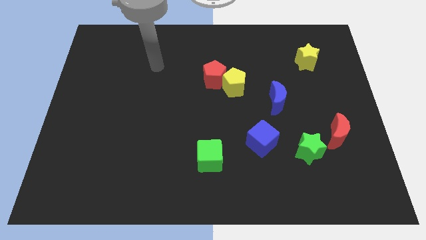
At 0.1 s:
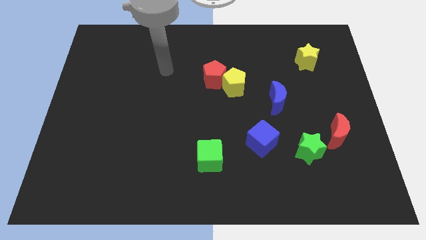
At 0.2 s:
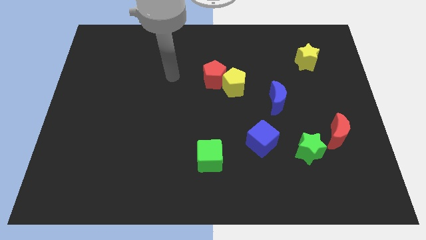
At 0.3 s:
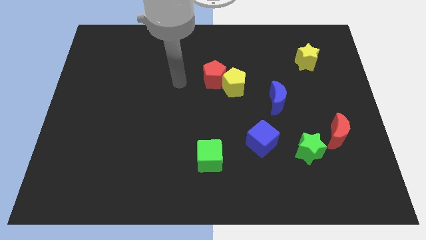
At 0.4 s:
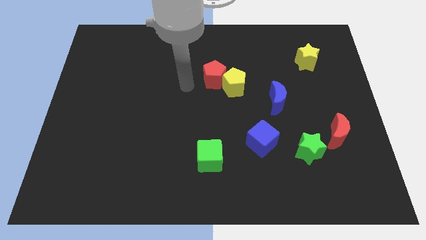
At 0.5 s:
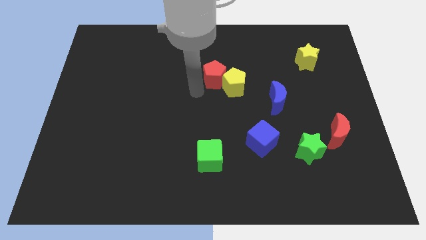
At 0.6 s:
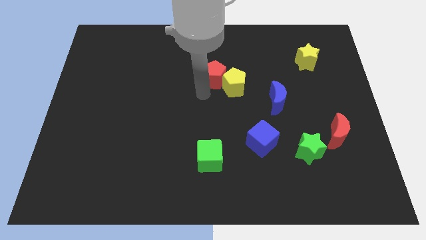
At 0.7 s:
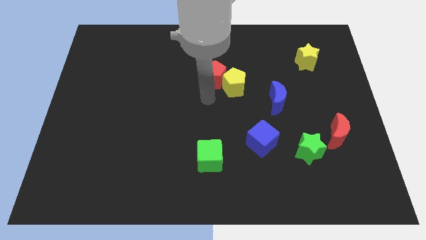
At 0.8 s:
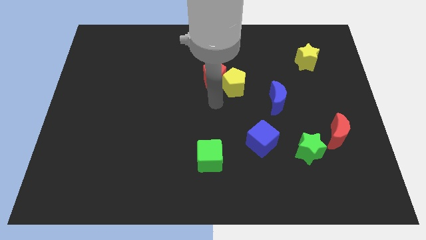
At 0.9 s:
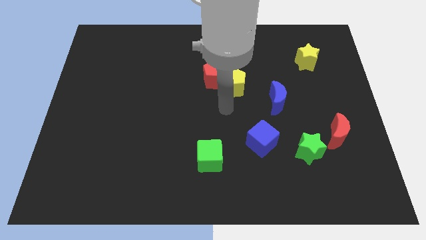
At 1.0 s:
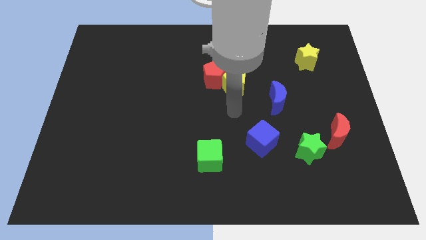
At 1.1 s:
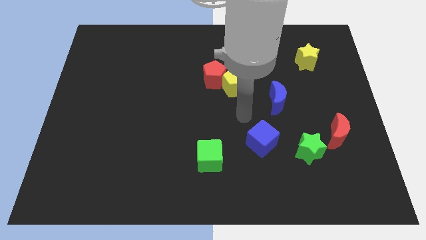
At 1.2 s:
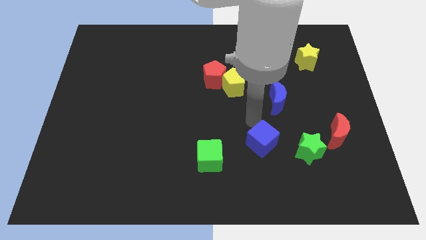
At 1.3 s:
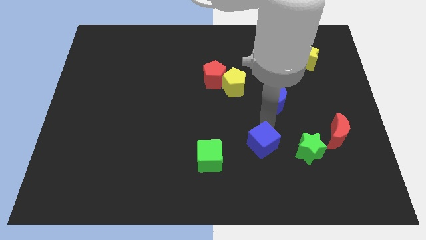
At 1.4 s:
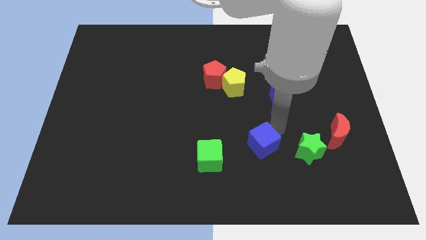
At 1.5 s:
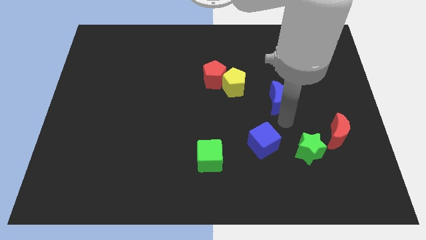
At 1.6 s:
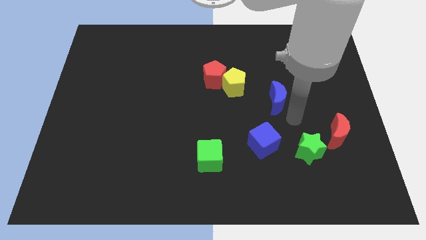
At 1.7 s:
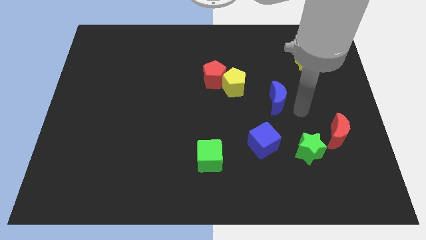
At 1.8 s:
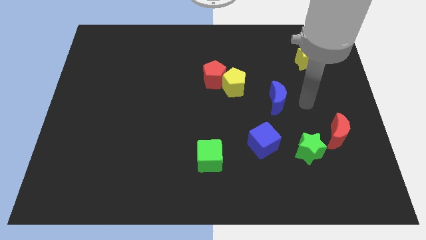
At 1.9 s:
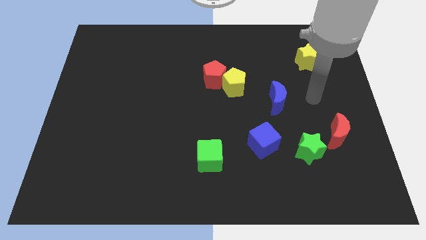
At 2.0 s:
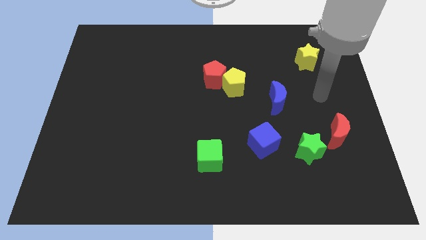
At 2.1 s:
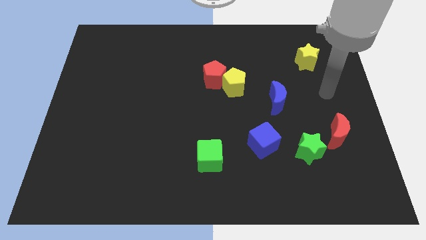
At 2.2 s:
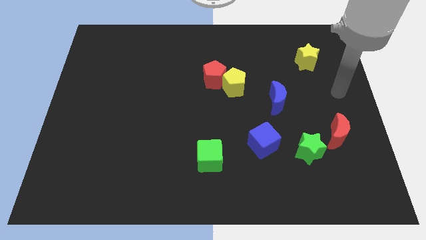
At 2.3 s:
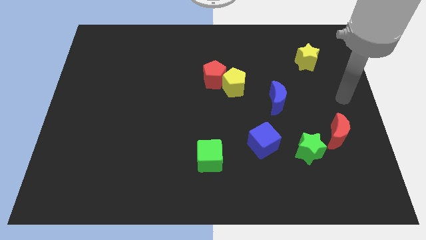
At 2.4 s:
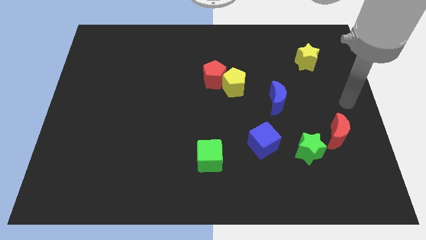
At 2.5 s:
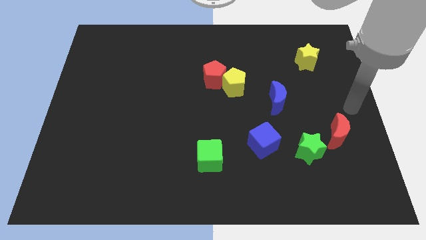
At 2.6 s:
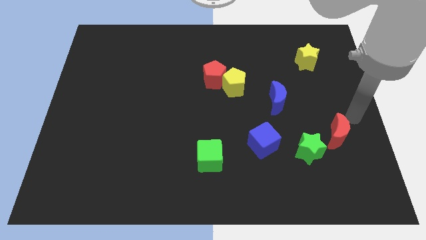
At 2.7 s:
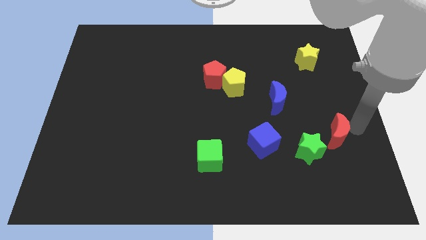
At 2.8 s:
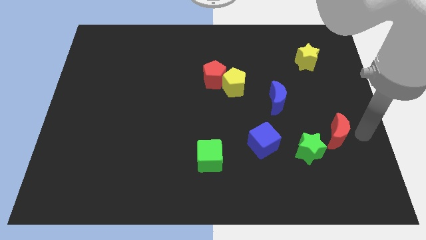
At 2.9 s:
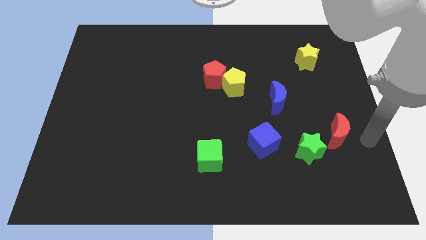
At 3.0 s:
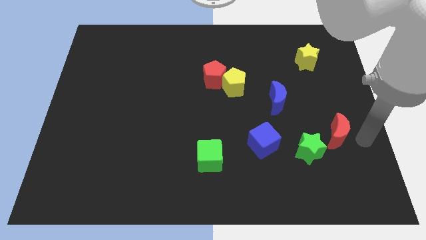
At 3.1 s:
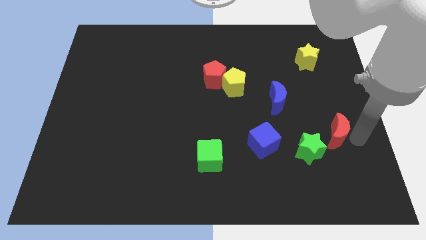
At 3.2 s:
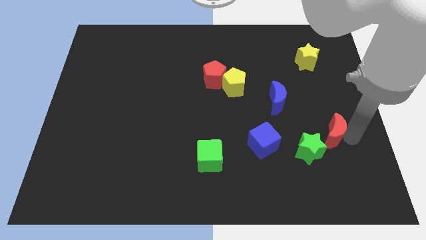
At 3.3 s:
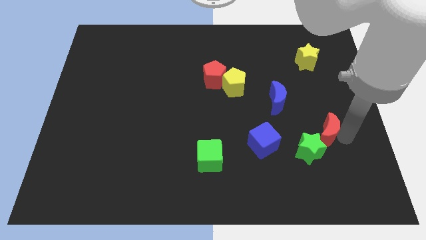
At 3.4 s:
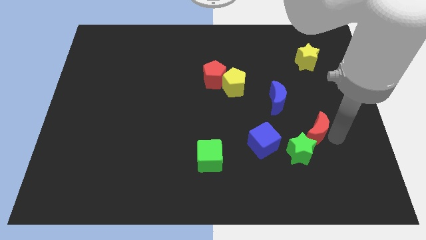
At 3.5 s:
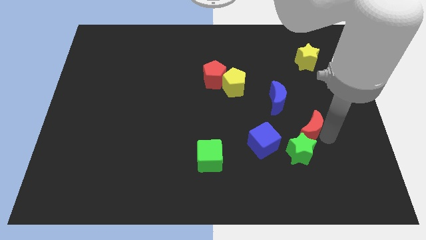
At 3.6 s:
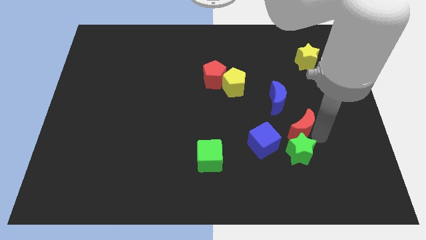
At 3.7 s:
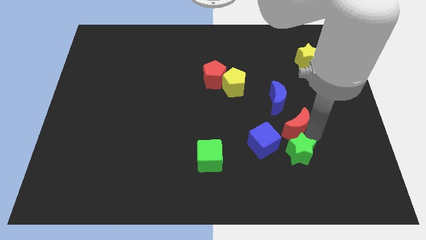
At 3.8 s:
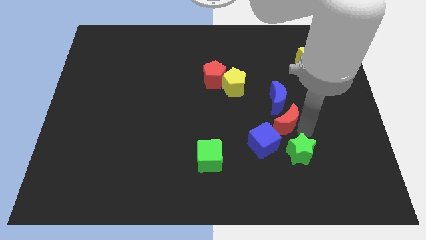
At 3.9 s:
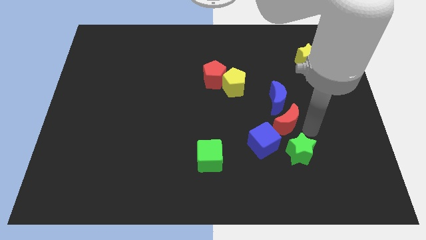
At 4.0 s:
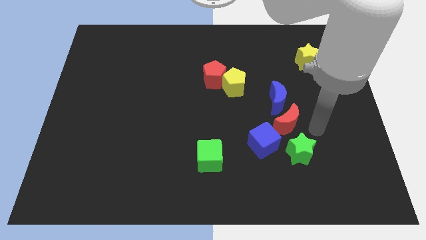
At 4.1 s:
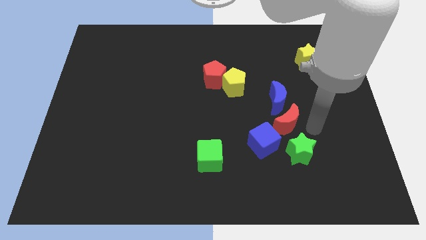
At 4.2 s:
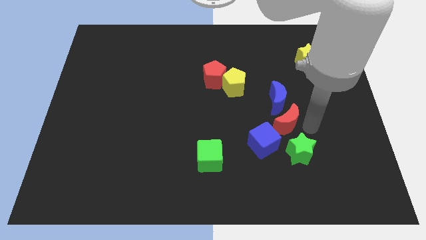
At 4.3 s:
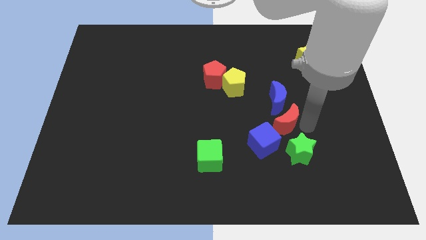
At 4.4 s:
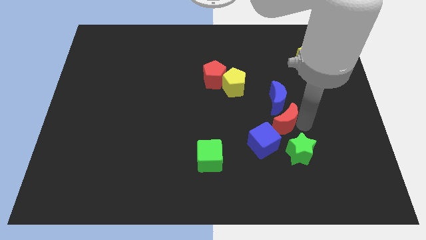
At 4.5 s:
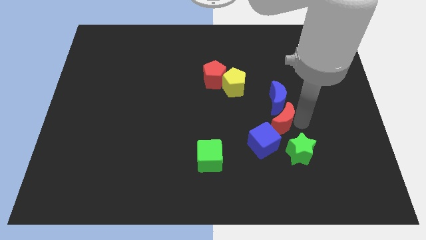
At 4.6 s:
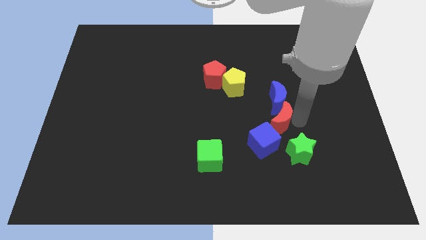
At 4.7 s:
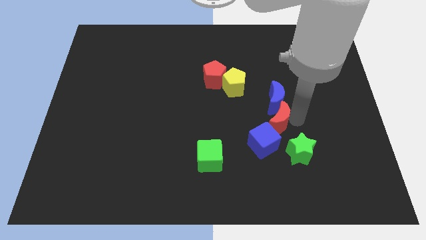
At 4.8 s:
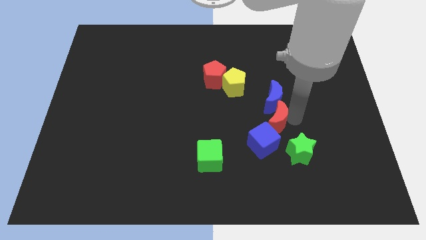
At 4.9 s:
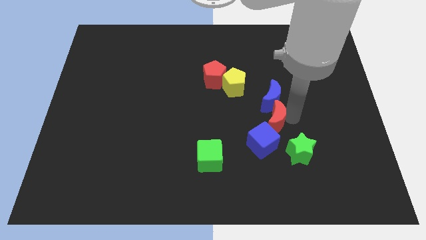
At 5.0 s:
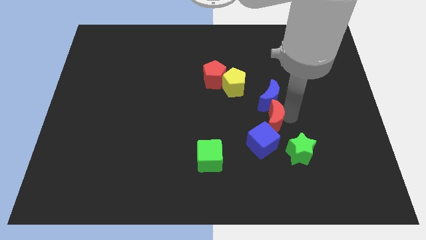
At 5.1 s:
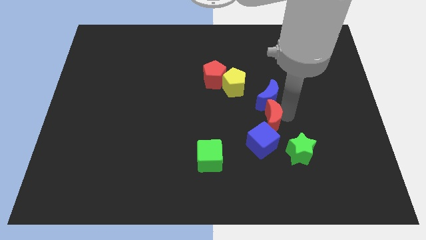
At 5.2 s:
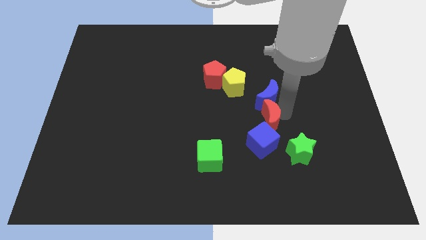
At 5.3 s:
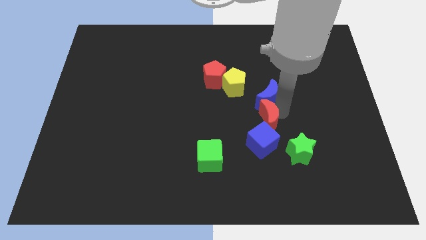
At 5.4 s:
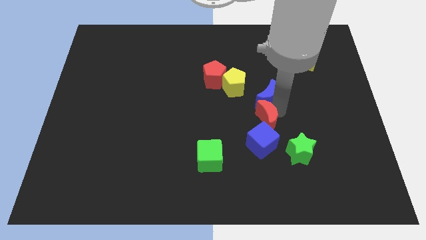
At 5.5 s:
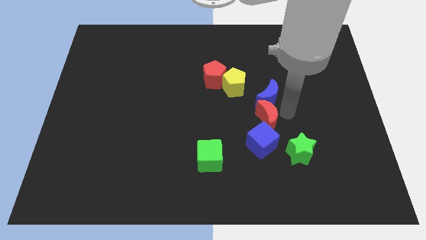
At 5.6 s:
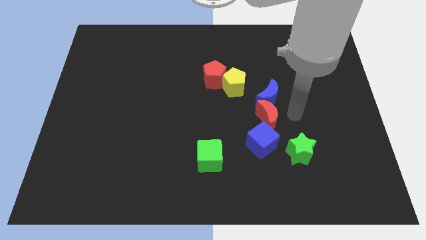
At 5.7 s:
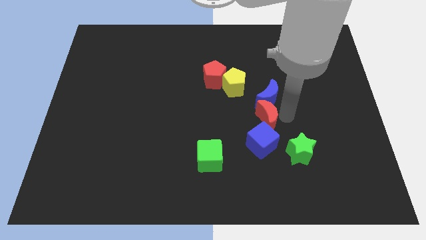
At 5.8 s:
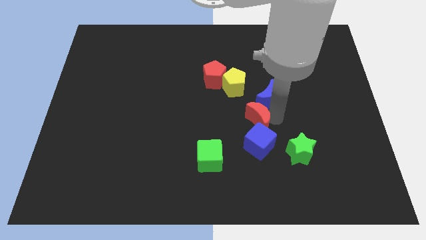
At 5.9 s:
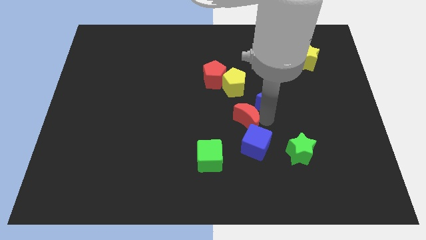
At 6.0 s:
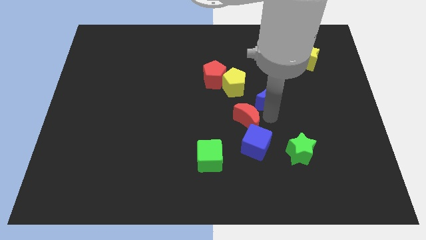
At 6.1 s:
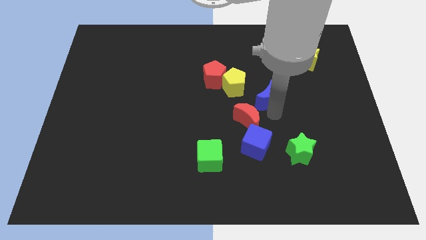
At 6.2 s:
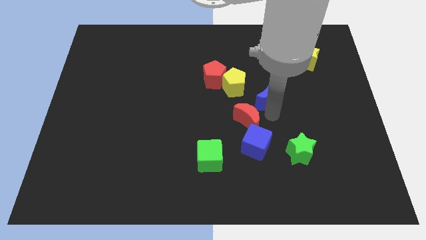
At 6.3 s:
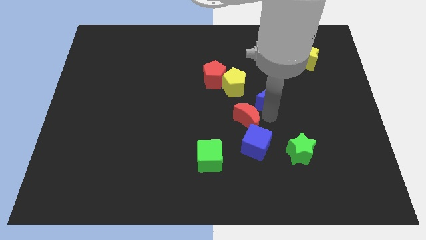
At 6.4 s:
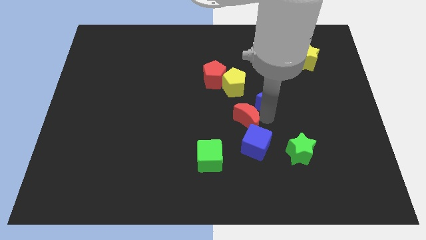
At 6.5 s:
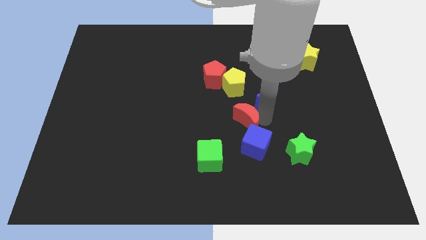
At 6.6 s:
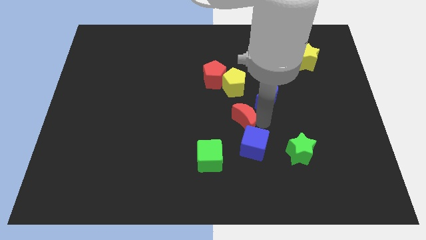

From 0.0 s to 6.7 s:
move the red moon to the left

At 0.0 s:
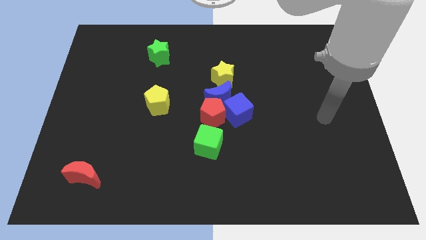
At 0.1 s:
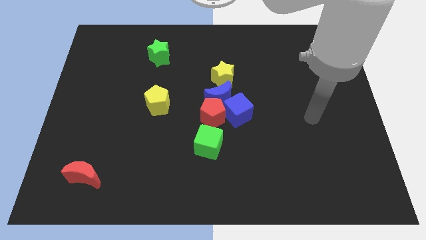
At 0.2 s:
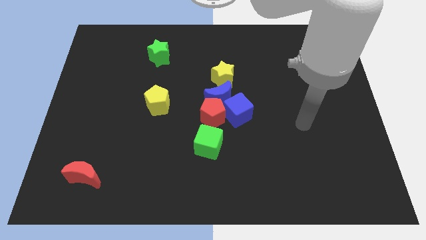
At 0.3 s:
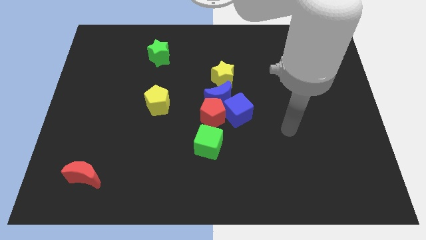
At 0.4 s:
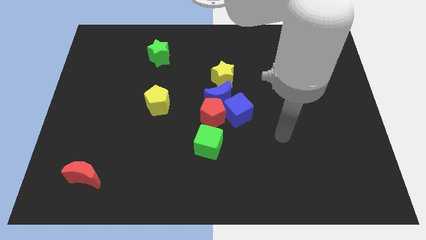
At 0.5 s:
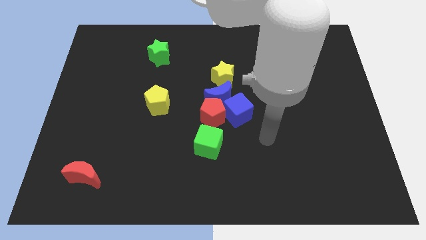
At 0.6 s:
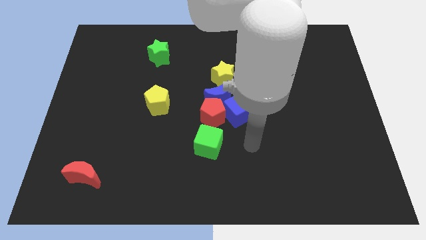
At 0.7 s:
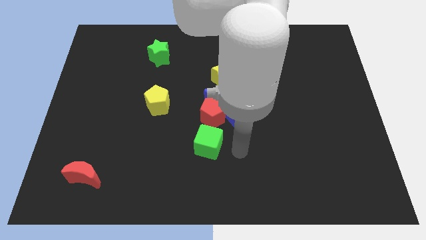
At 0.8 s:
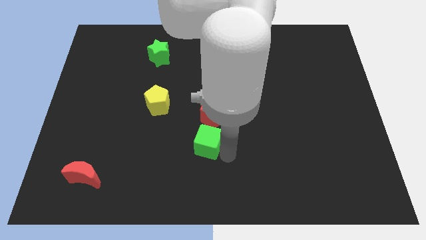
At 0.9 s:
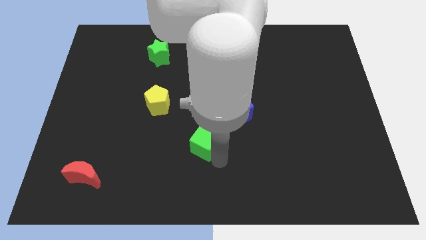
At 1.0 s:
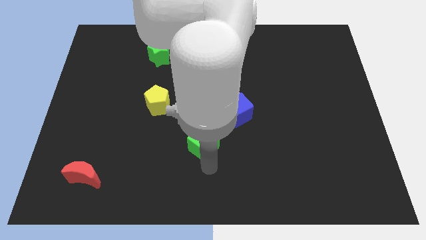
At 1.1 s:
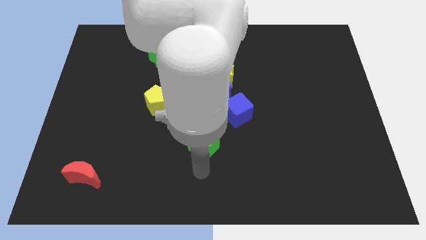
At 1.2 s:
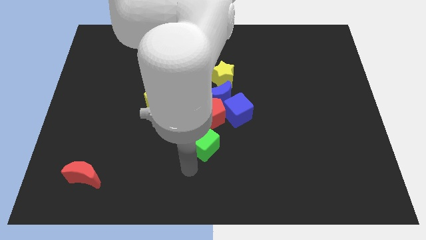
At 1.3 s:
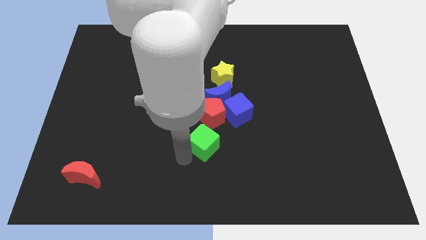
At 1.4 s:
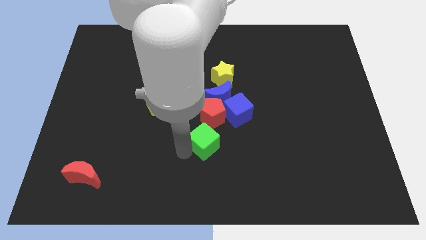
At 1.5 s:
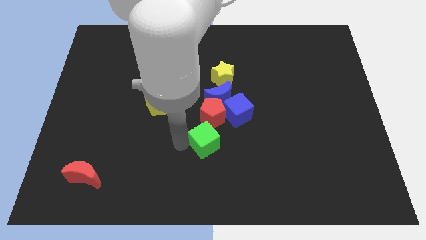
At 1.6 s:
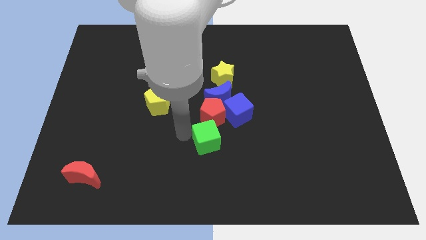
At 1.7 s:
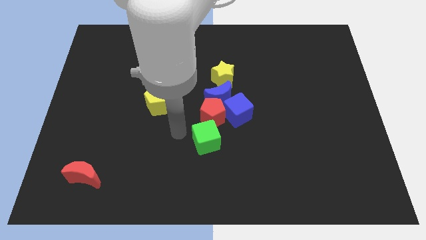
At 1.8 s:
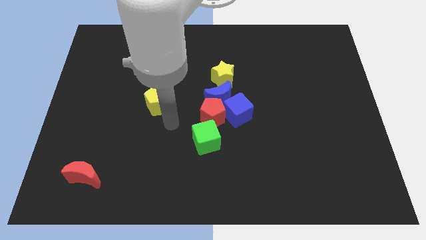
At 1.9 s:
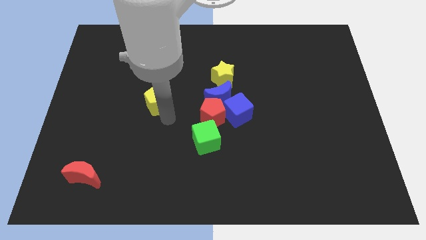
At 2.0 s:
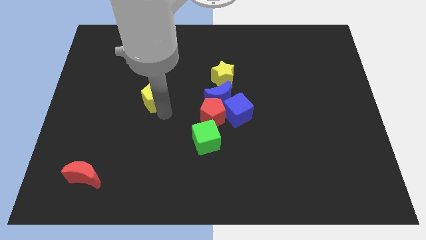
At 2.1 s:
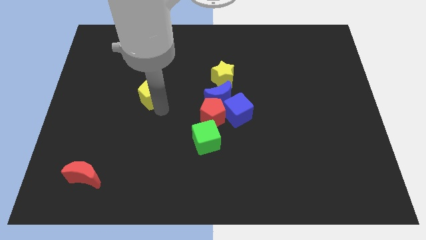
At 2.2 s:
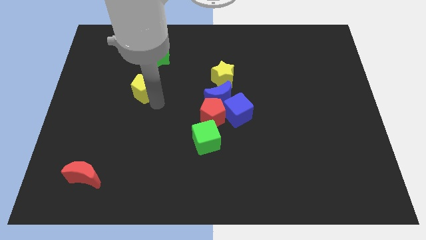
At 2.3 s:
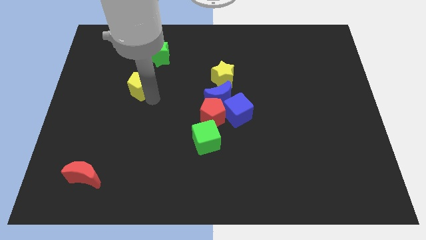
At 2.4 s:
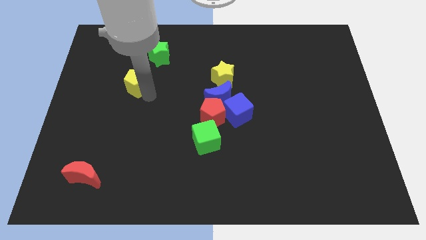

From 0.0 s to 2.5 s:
move the yellow pentagon somewhat upwards and then to the left
